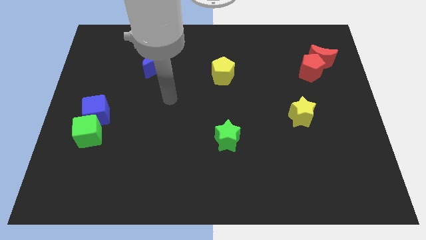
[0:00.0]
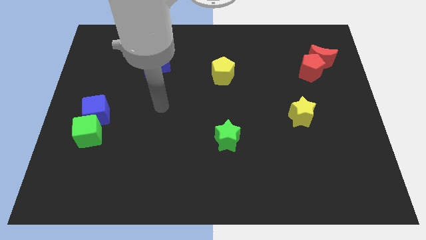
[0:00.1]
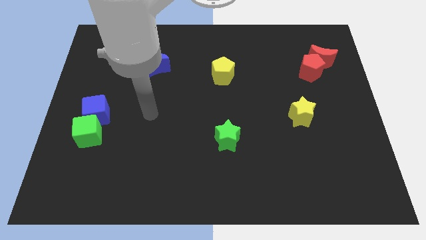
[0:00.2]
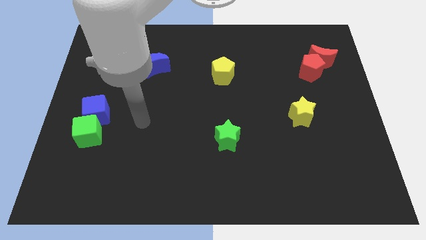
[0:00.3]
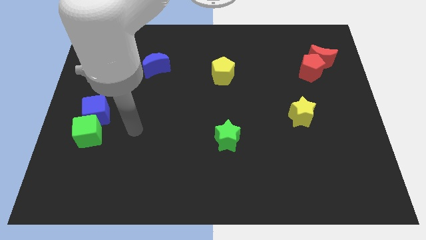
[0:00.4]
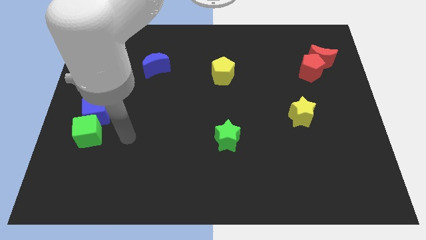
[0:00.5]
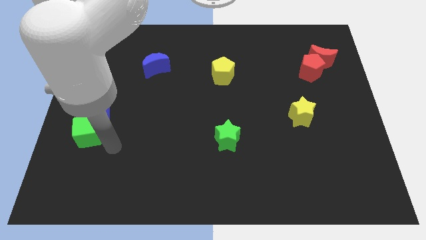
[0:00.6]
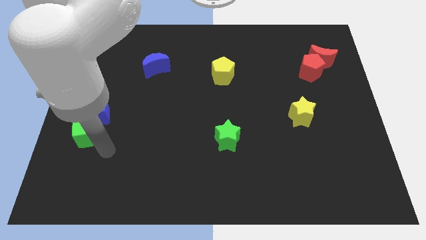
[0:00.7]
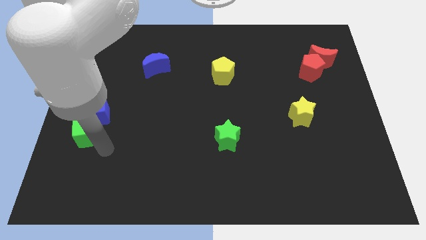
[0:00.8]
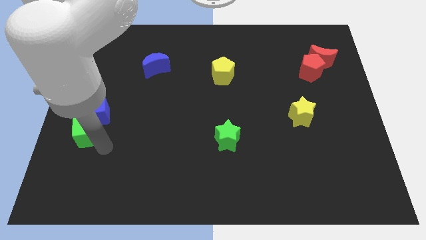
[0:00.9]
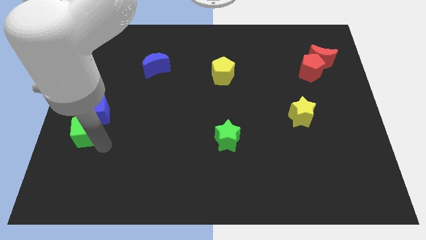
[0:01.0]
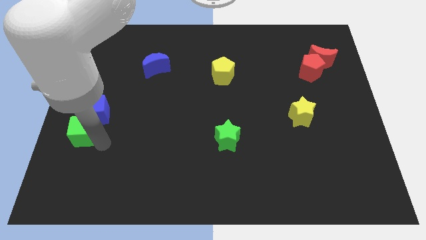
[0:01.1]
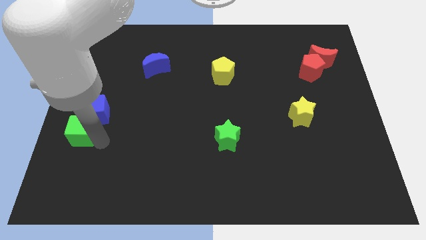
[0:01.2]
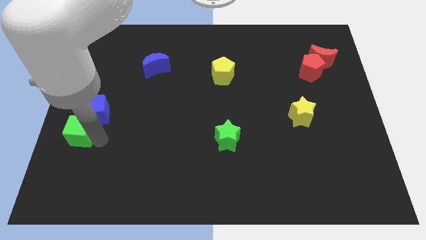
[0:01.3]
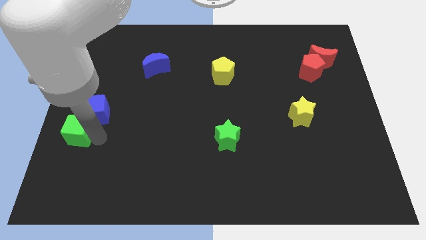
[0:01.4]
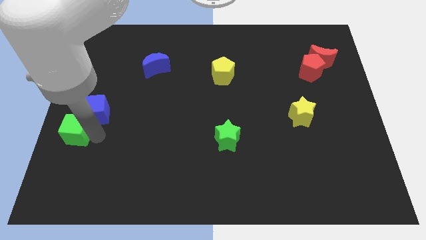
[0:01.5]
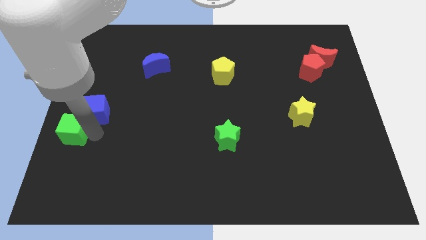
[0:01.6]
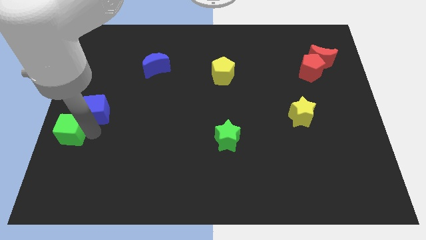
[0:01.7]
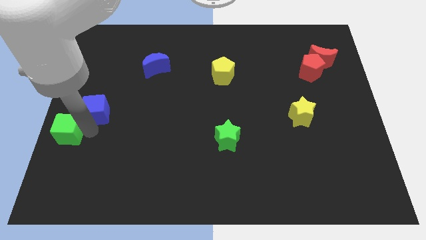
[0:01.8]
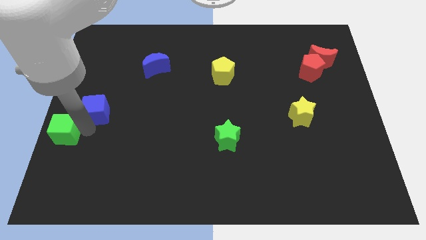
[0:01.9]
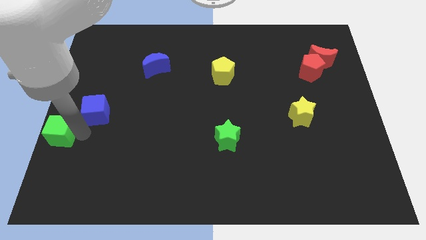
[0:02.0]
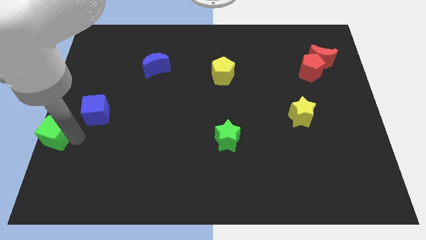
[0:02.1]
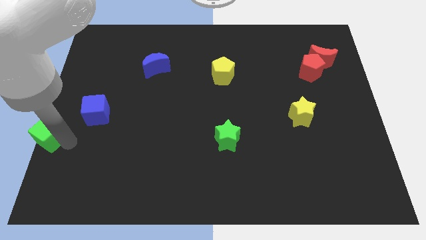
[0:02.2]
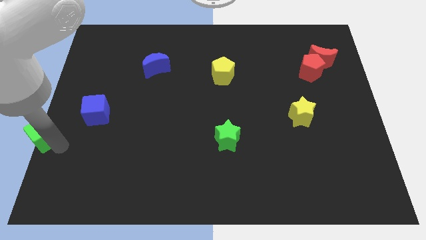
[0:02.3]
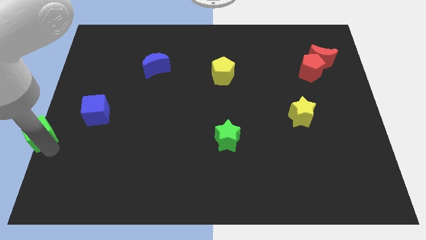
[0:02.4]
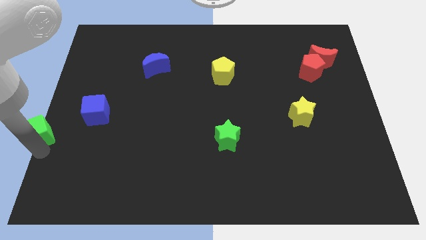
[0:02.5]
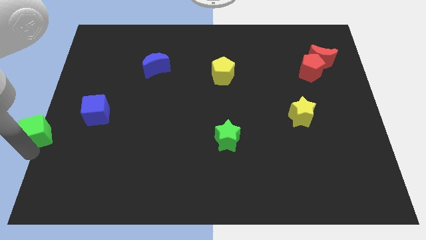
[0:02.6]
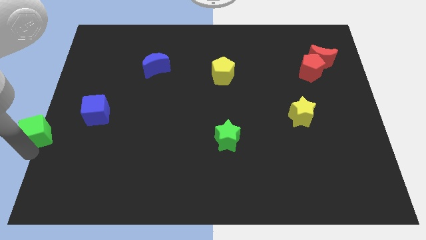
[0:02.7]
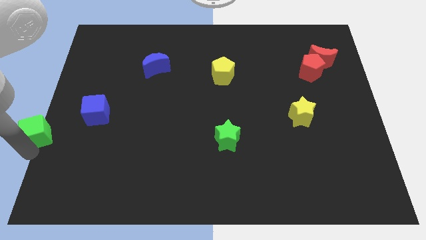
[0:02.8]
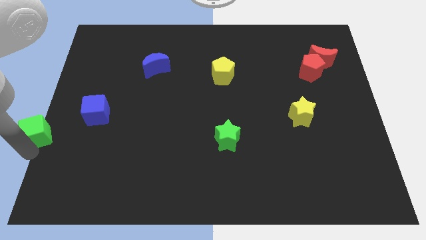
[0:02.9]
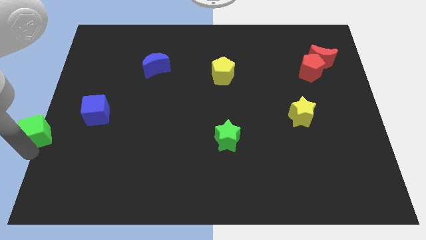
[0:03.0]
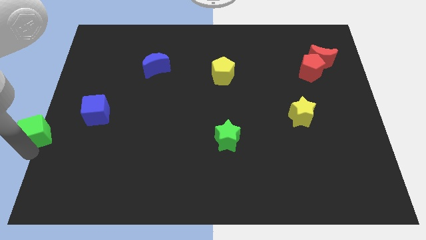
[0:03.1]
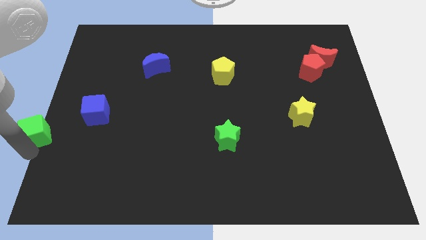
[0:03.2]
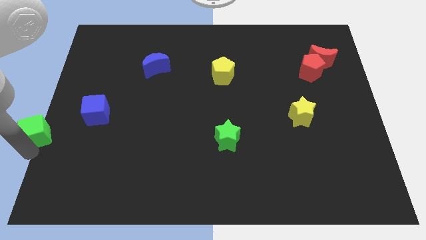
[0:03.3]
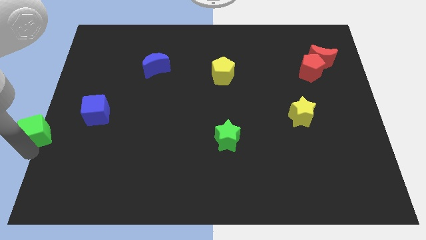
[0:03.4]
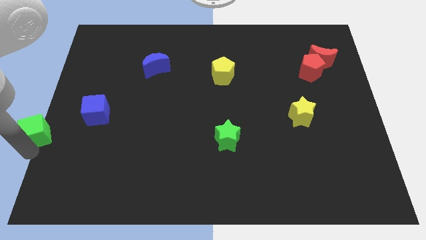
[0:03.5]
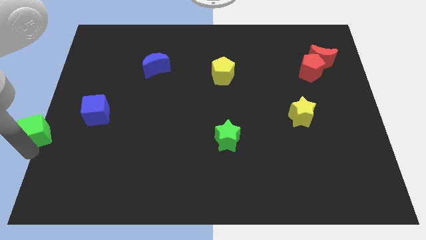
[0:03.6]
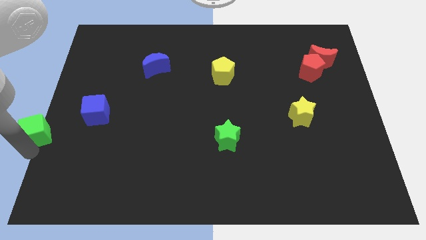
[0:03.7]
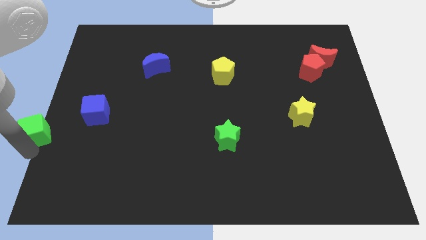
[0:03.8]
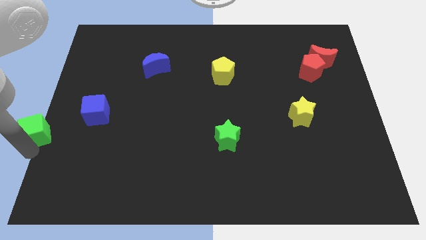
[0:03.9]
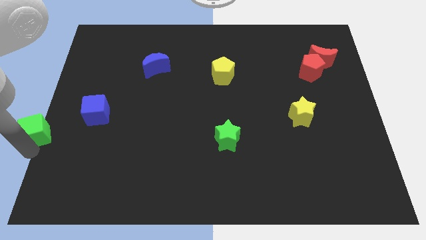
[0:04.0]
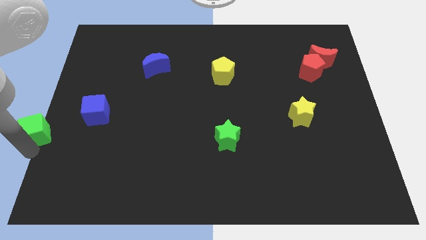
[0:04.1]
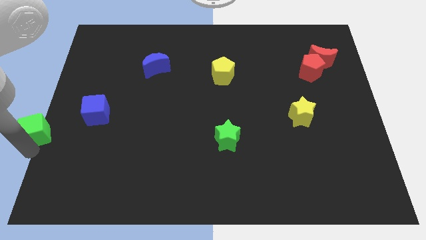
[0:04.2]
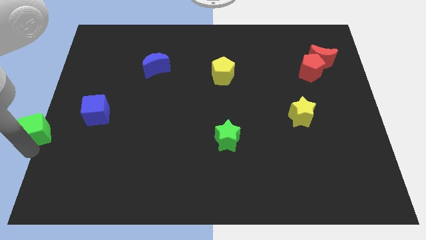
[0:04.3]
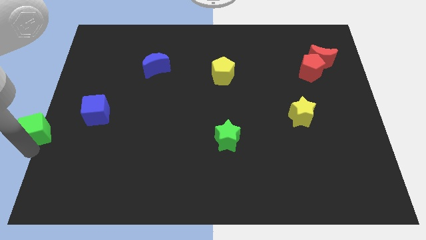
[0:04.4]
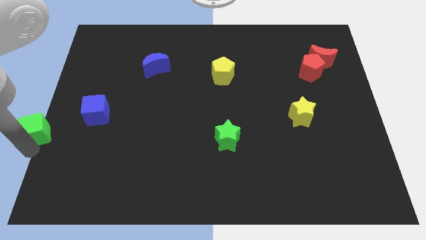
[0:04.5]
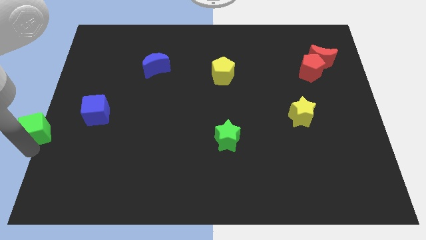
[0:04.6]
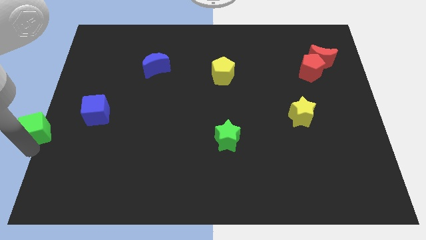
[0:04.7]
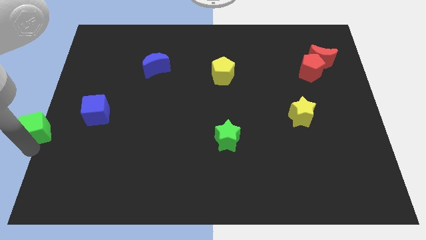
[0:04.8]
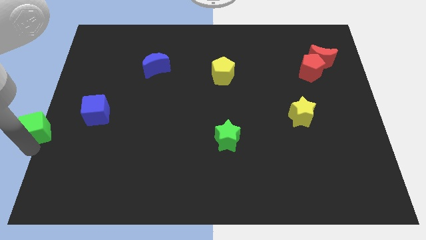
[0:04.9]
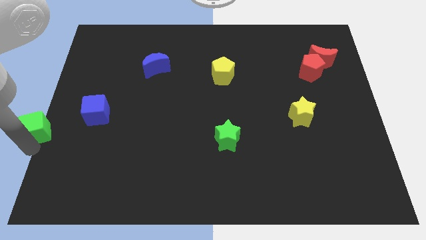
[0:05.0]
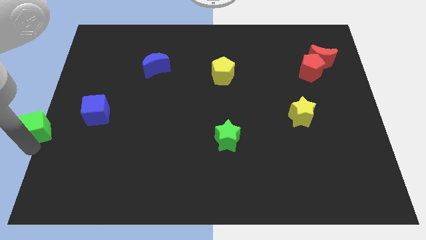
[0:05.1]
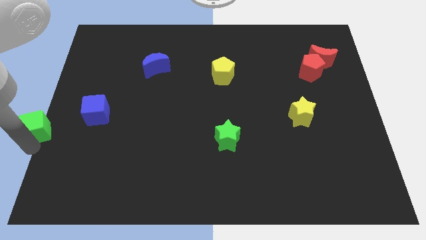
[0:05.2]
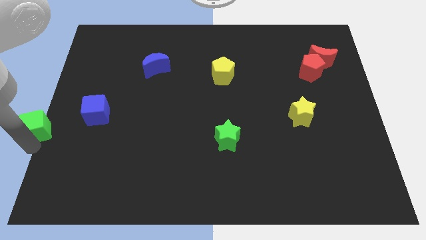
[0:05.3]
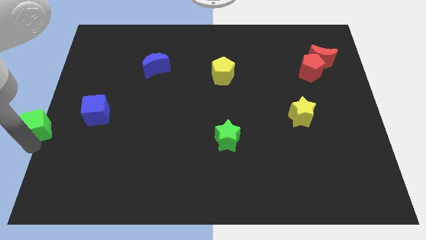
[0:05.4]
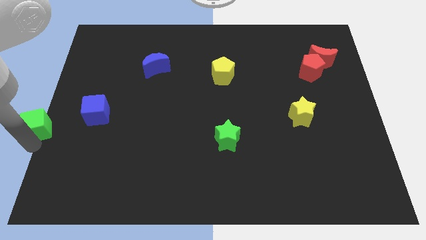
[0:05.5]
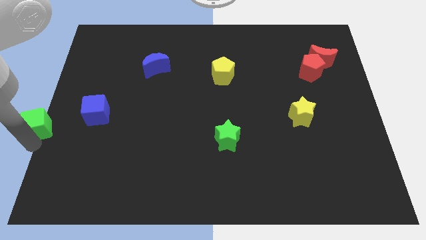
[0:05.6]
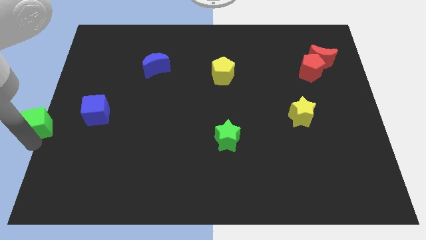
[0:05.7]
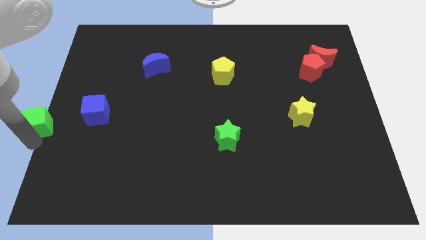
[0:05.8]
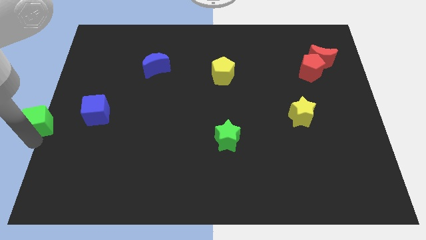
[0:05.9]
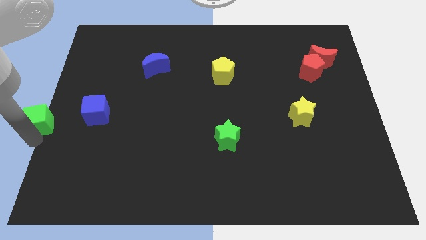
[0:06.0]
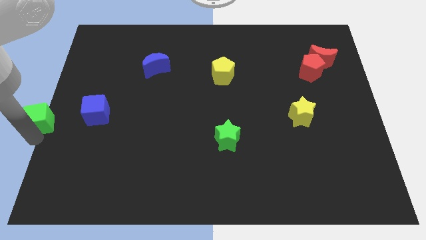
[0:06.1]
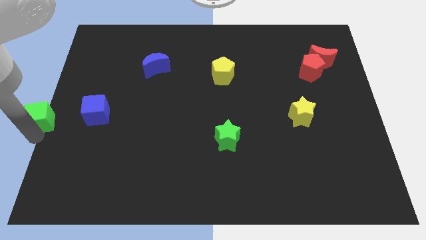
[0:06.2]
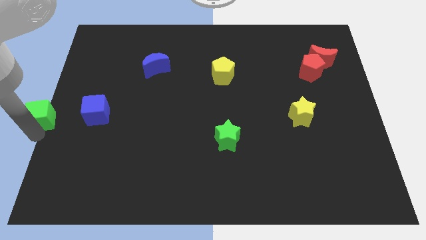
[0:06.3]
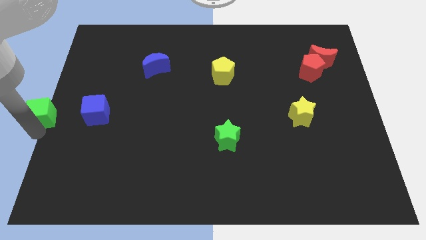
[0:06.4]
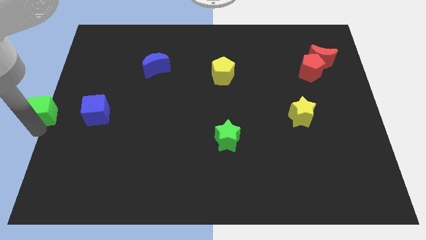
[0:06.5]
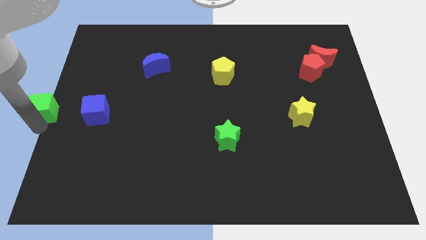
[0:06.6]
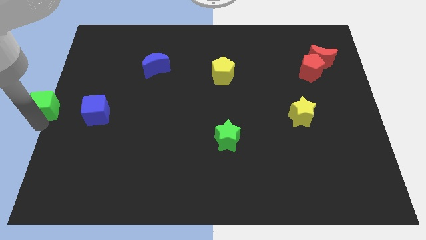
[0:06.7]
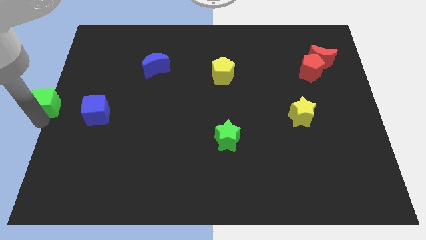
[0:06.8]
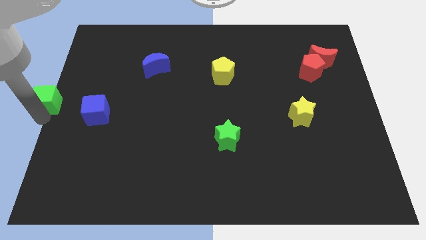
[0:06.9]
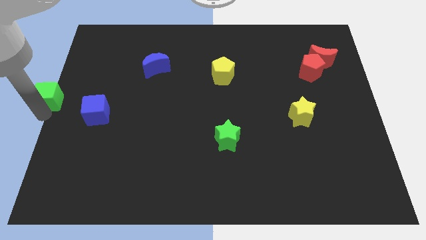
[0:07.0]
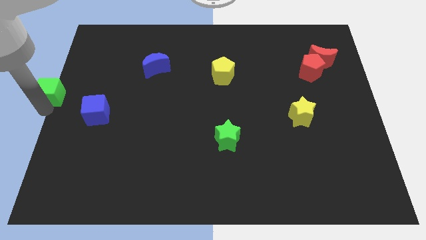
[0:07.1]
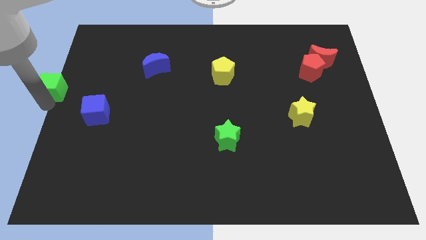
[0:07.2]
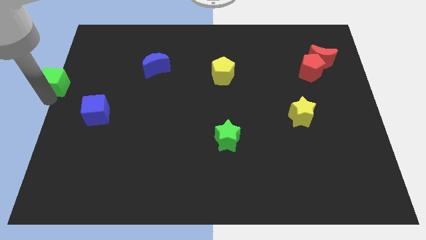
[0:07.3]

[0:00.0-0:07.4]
slightly slide the green cube up

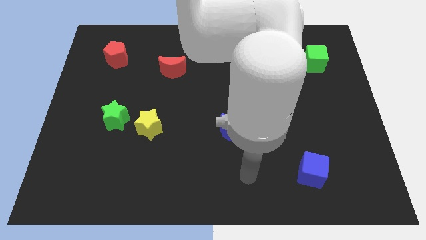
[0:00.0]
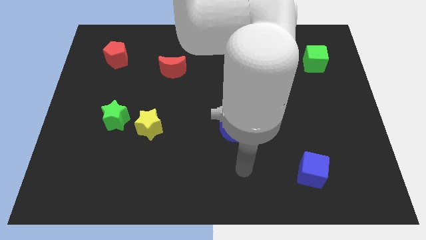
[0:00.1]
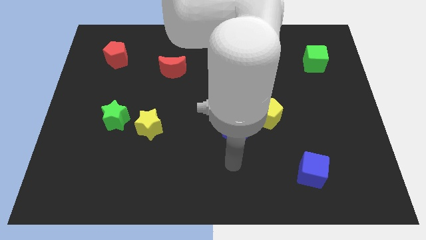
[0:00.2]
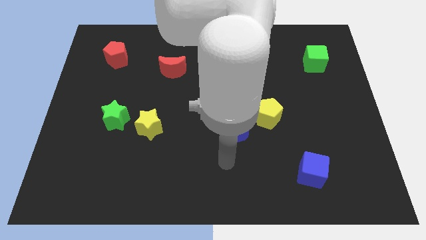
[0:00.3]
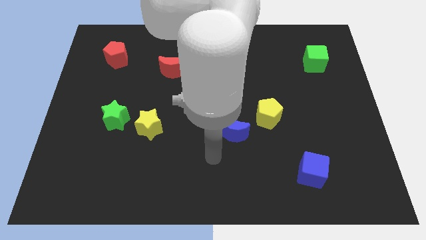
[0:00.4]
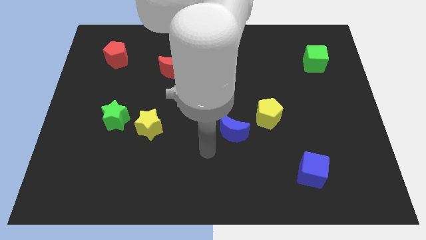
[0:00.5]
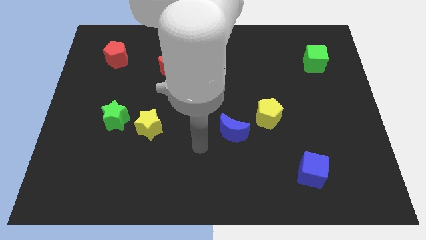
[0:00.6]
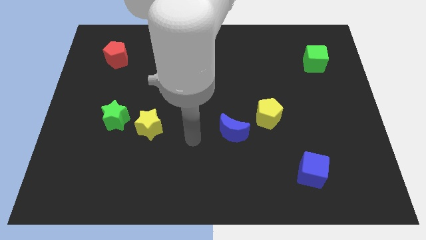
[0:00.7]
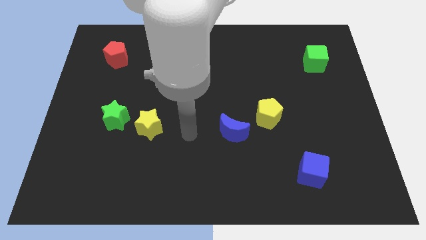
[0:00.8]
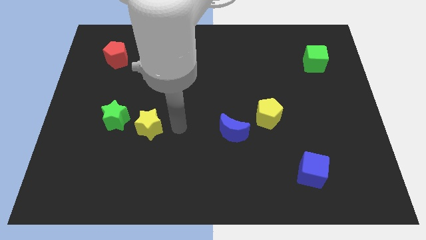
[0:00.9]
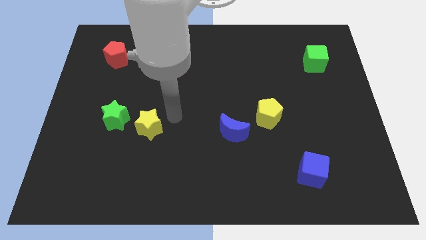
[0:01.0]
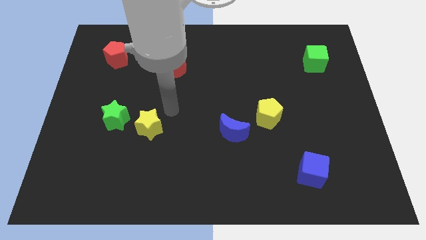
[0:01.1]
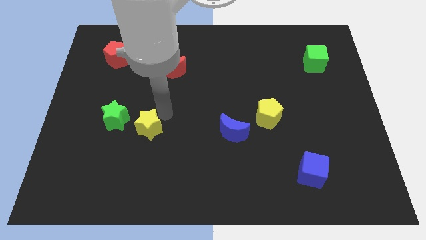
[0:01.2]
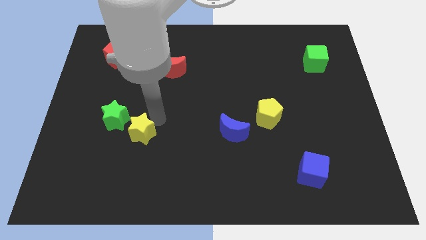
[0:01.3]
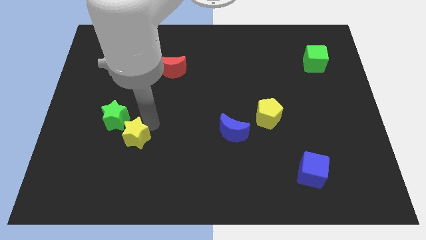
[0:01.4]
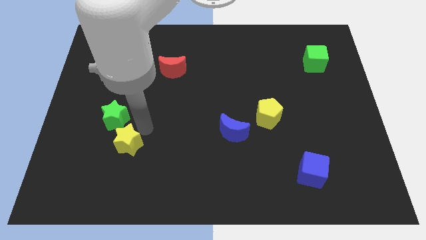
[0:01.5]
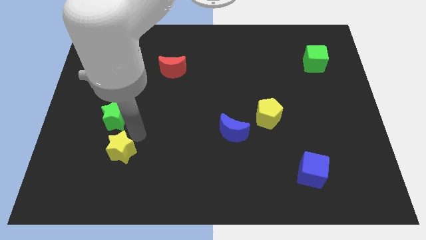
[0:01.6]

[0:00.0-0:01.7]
move the yellow star down and then to the left a little
